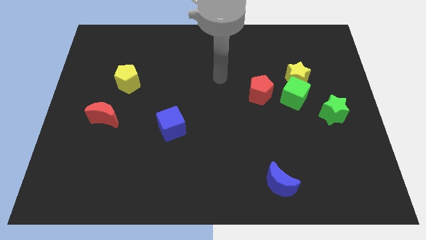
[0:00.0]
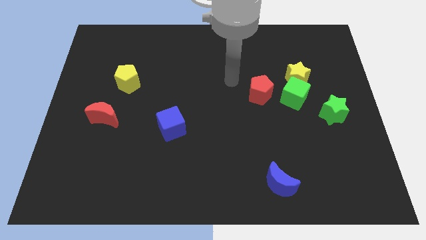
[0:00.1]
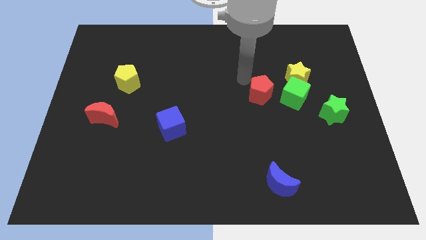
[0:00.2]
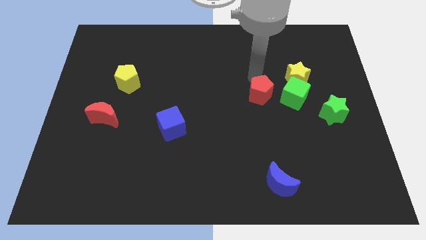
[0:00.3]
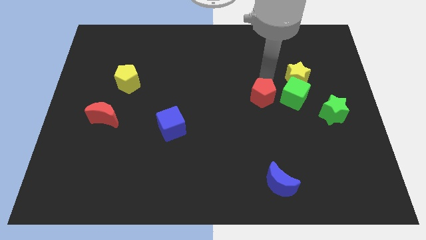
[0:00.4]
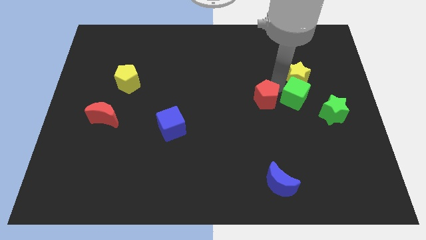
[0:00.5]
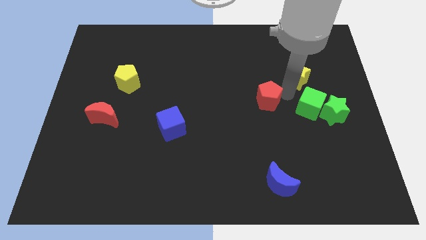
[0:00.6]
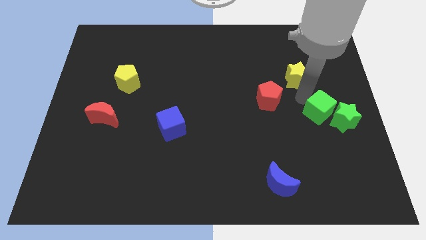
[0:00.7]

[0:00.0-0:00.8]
pull the yellow star apart from the green cube

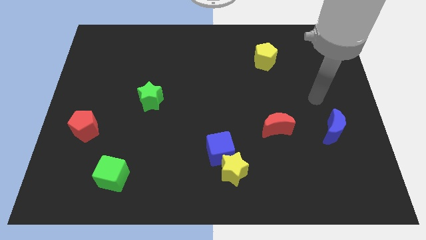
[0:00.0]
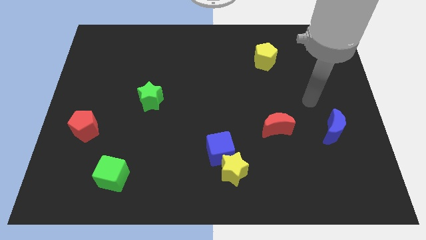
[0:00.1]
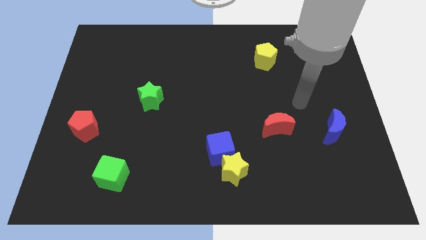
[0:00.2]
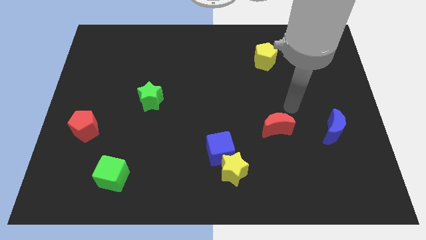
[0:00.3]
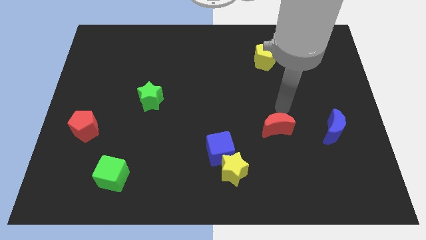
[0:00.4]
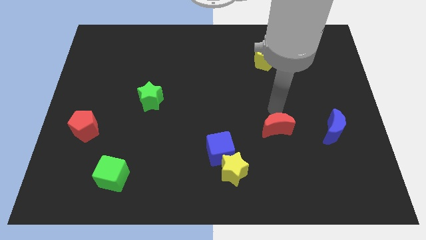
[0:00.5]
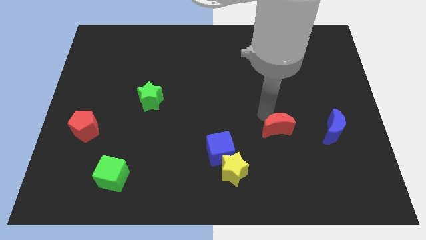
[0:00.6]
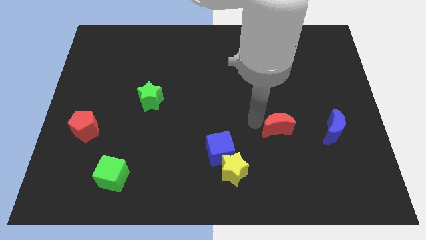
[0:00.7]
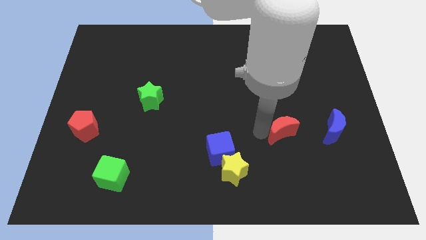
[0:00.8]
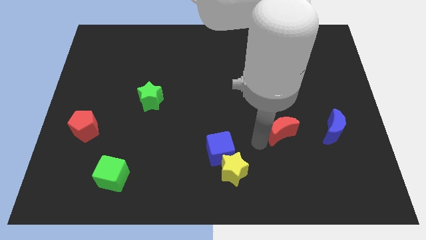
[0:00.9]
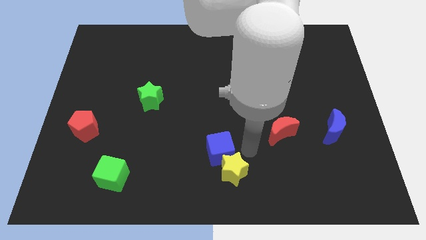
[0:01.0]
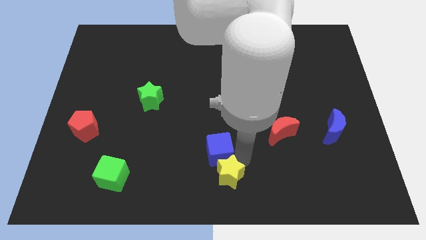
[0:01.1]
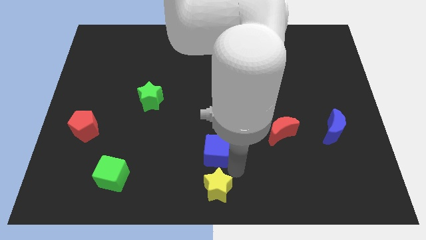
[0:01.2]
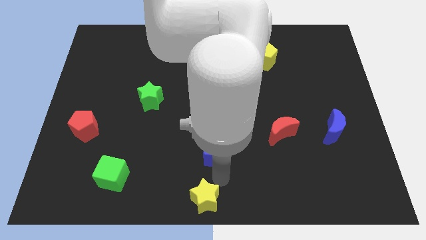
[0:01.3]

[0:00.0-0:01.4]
pull the blue cube apart from the yellow star

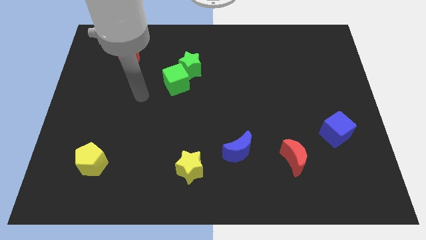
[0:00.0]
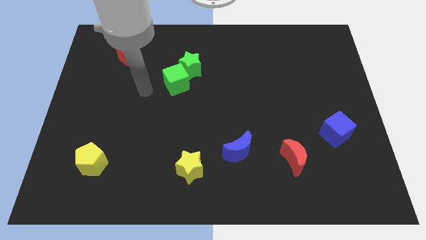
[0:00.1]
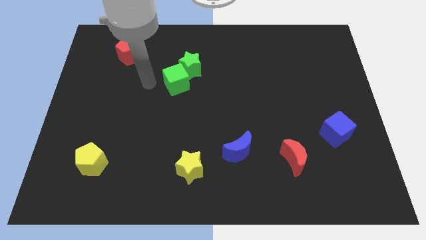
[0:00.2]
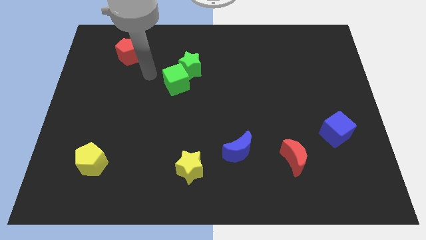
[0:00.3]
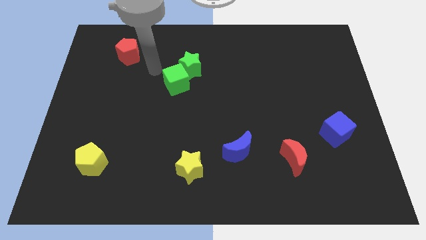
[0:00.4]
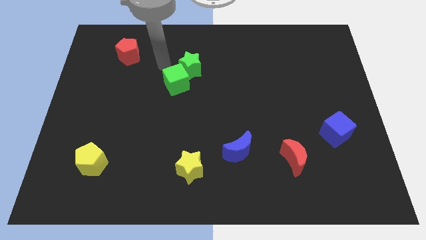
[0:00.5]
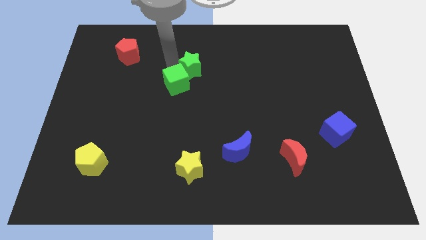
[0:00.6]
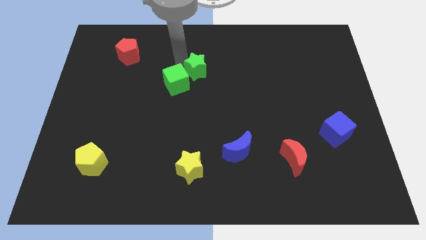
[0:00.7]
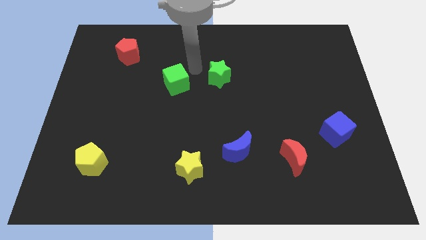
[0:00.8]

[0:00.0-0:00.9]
pull the green cube apart from the green star

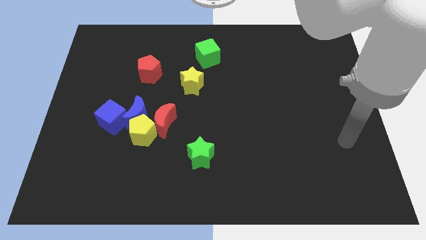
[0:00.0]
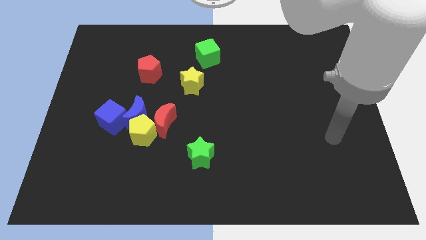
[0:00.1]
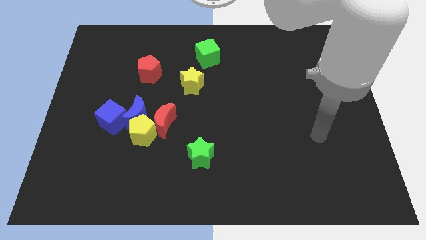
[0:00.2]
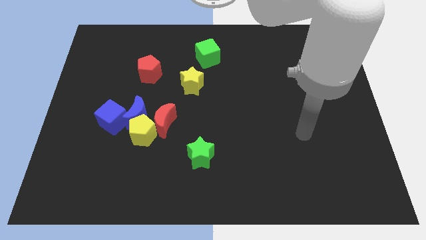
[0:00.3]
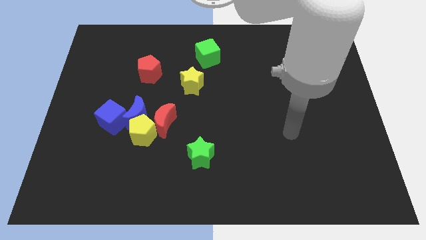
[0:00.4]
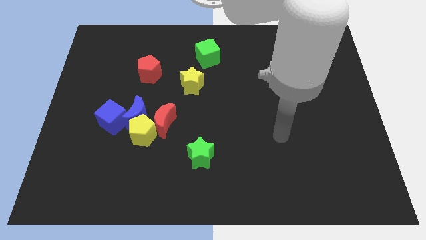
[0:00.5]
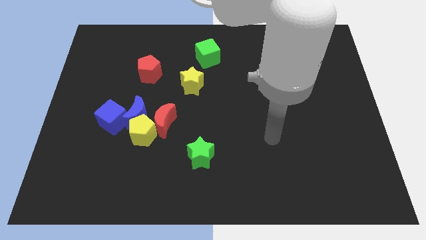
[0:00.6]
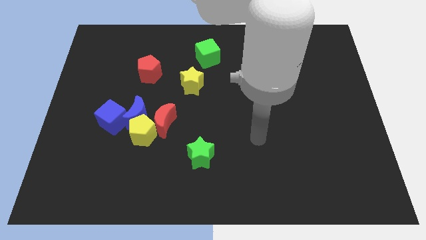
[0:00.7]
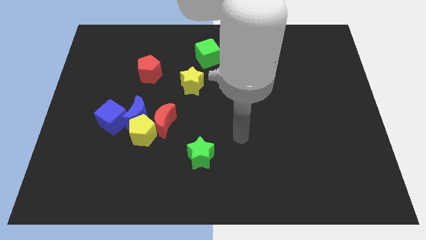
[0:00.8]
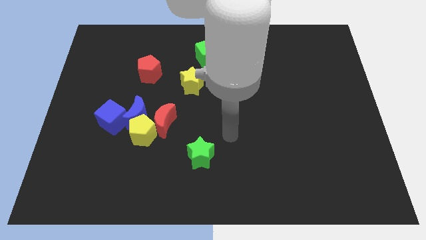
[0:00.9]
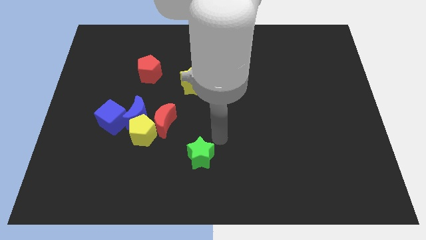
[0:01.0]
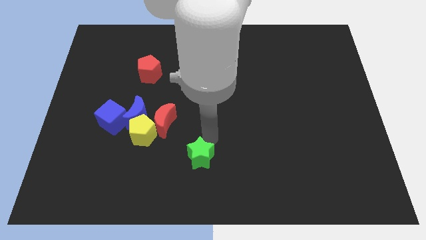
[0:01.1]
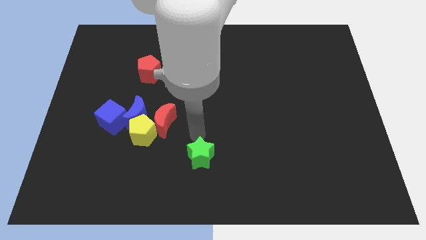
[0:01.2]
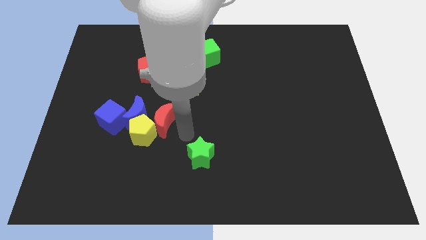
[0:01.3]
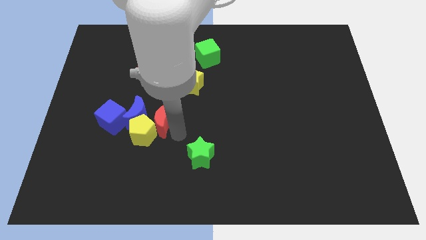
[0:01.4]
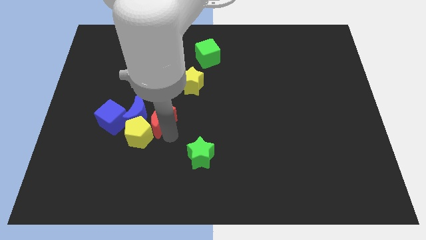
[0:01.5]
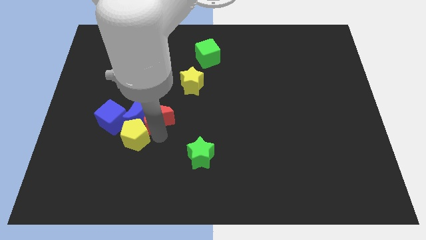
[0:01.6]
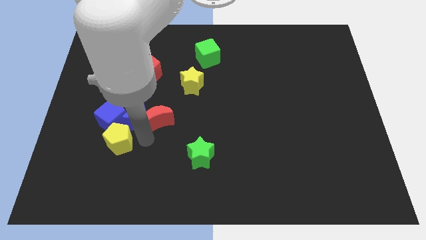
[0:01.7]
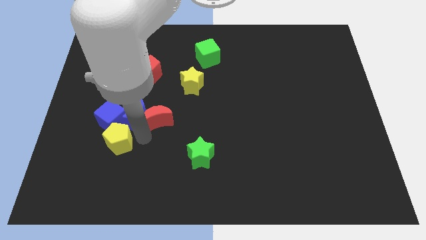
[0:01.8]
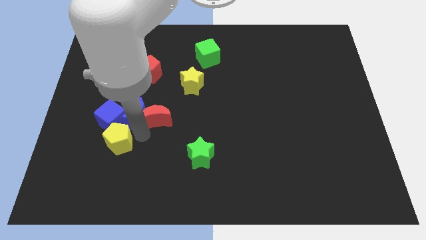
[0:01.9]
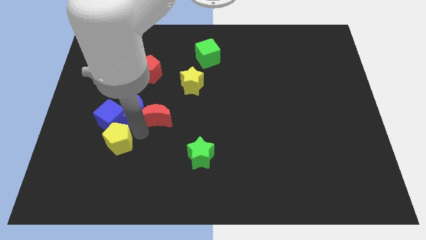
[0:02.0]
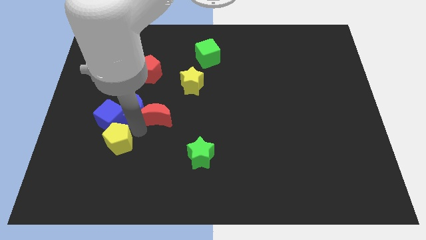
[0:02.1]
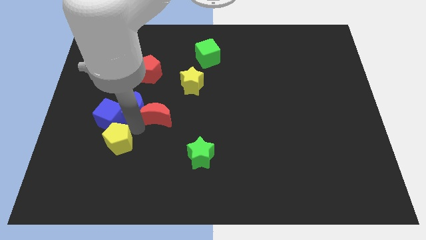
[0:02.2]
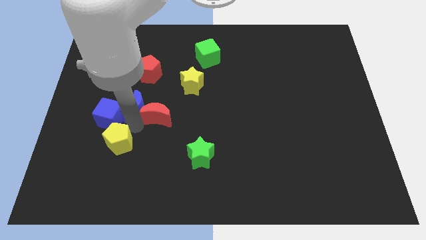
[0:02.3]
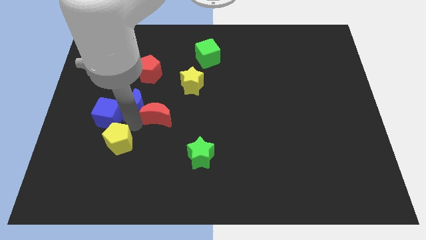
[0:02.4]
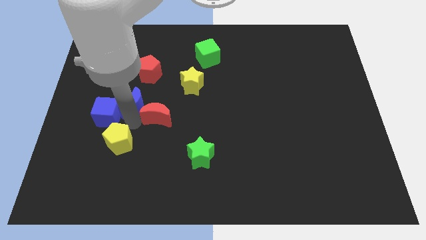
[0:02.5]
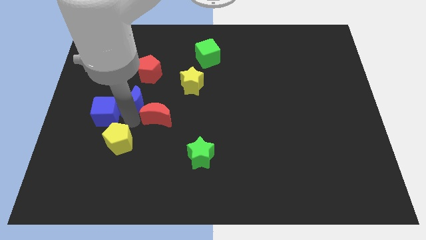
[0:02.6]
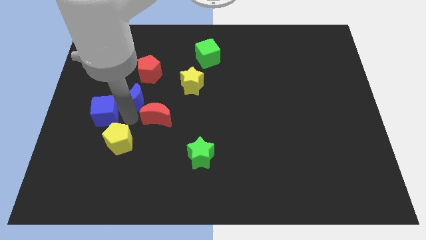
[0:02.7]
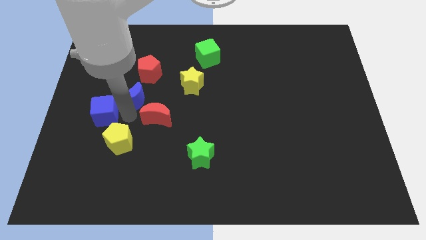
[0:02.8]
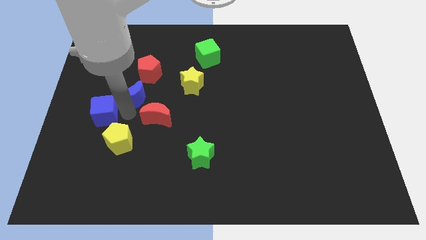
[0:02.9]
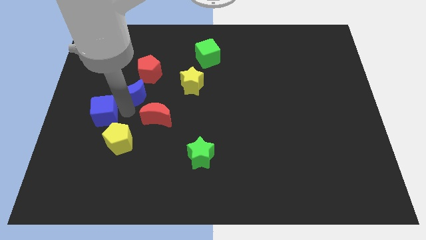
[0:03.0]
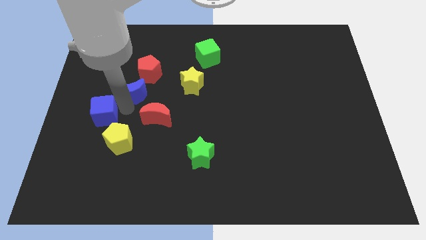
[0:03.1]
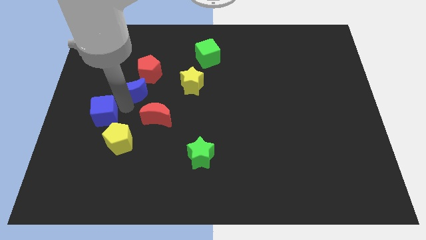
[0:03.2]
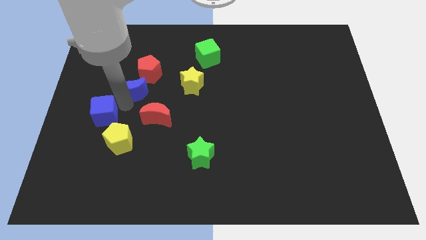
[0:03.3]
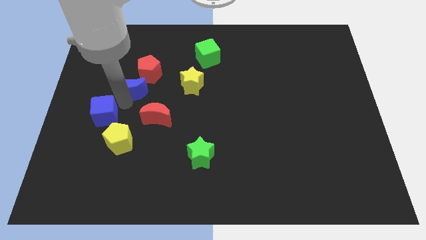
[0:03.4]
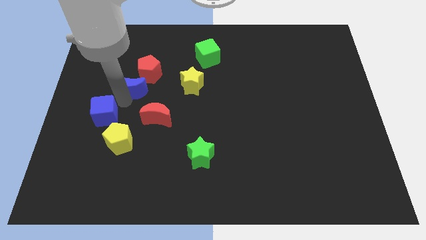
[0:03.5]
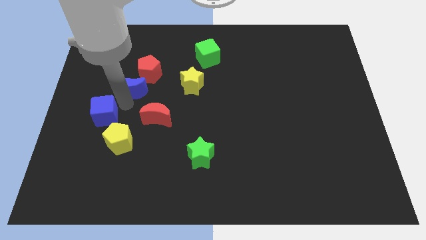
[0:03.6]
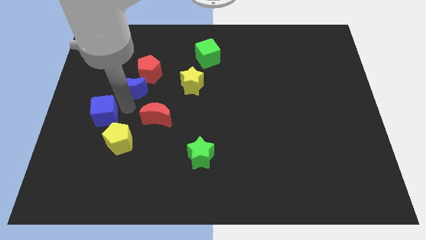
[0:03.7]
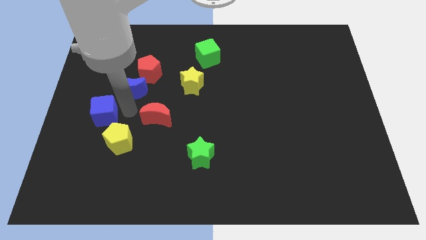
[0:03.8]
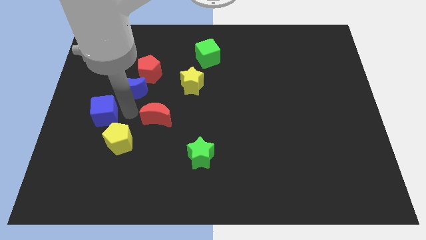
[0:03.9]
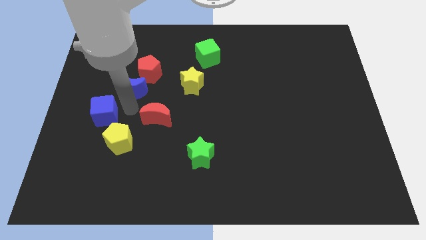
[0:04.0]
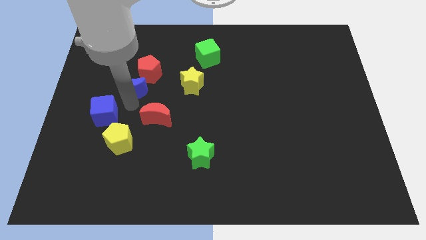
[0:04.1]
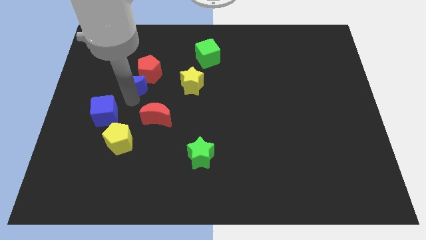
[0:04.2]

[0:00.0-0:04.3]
move the blue moon away from the group of blocks

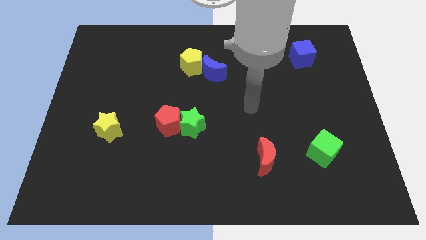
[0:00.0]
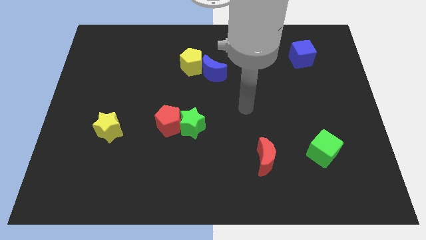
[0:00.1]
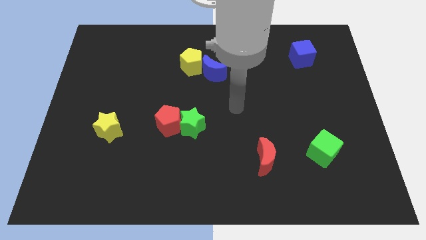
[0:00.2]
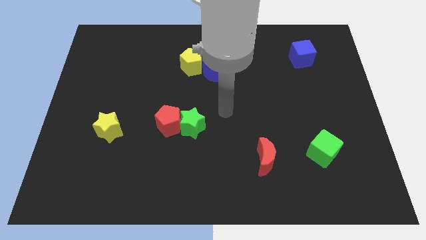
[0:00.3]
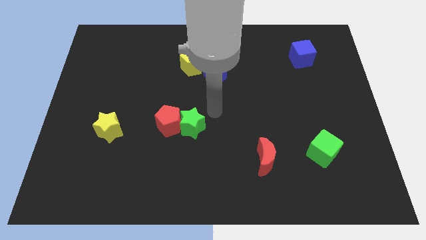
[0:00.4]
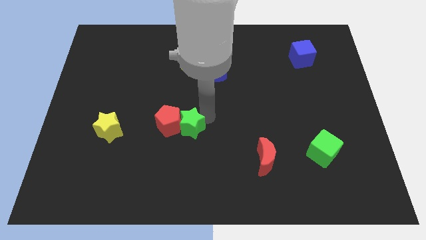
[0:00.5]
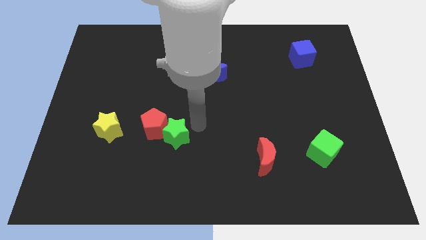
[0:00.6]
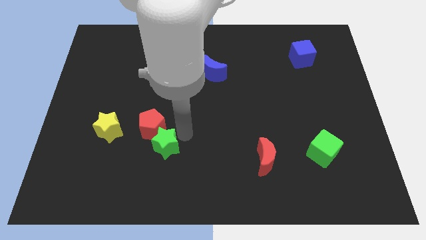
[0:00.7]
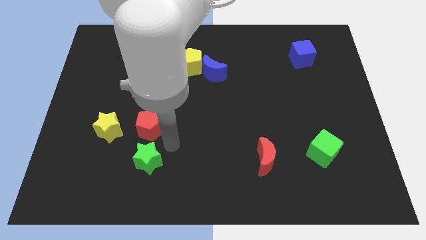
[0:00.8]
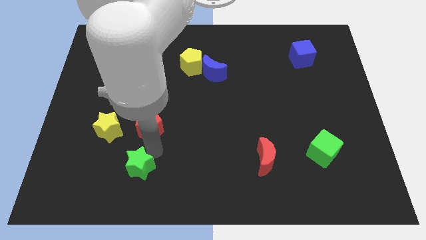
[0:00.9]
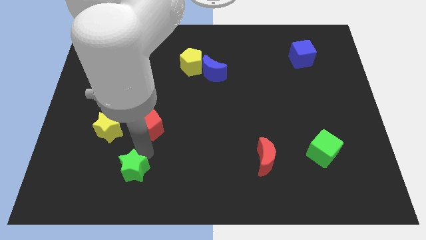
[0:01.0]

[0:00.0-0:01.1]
separate the red pentagon from the green star

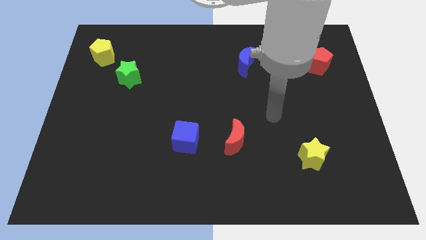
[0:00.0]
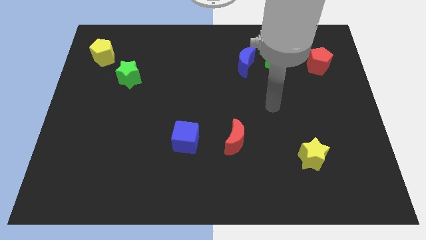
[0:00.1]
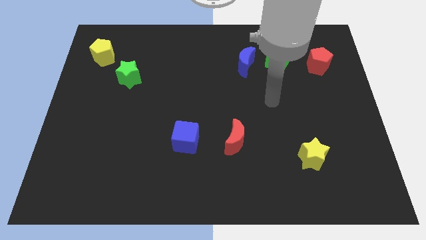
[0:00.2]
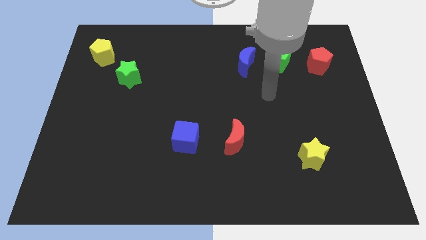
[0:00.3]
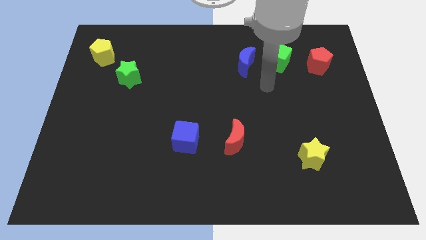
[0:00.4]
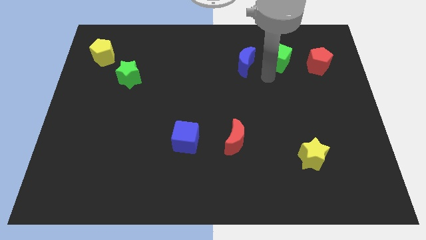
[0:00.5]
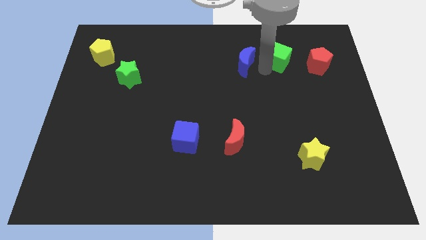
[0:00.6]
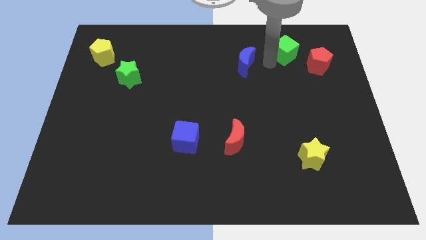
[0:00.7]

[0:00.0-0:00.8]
move the blue moon away from the green cube
